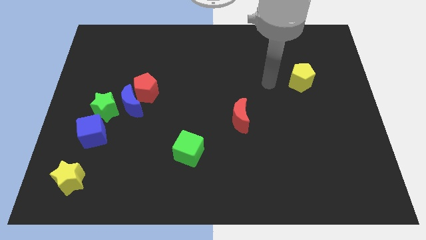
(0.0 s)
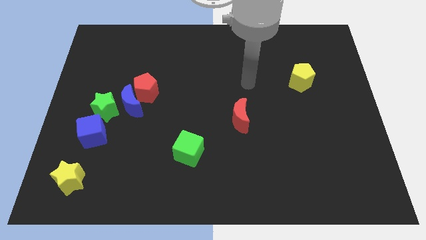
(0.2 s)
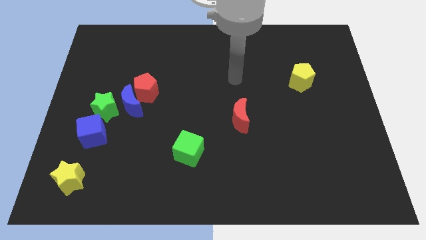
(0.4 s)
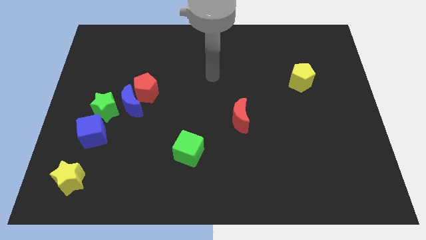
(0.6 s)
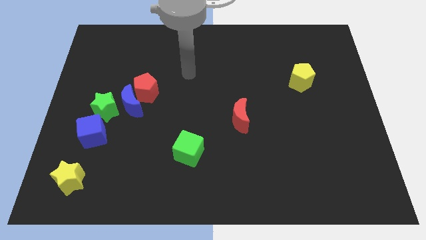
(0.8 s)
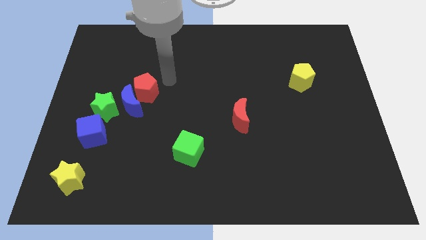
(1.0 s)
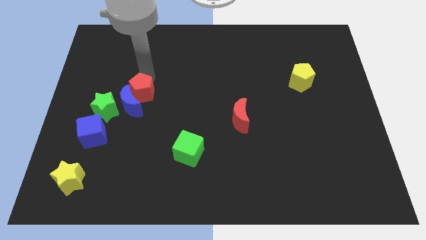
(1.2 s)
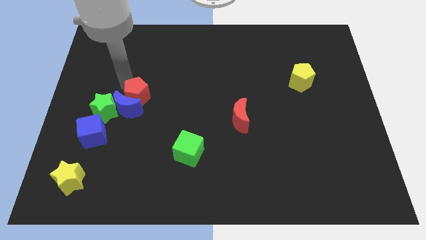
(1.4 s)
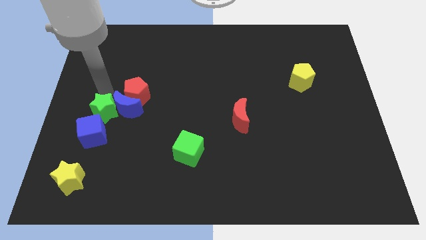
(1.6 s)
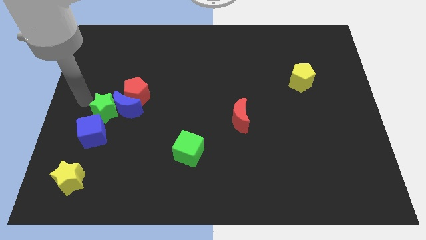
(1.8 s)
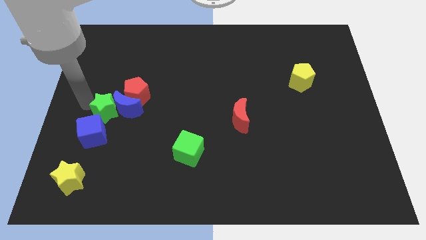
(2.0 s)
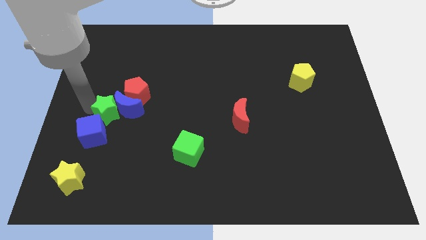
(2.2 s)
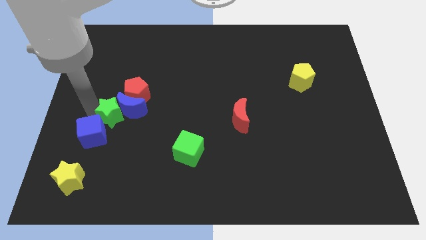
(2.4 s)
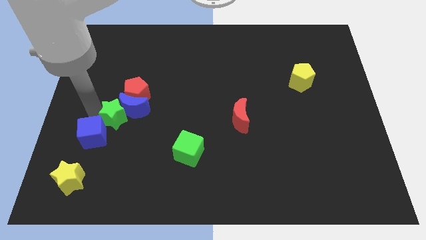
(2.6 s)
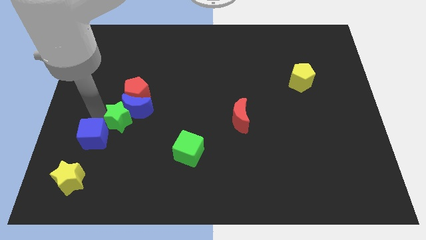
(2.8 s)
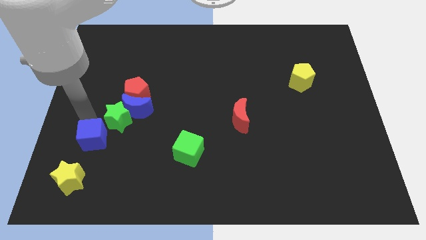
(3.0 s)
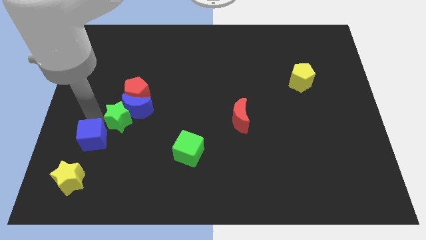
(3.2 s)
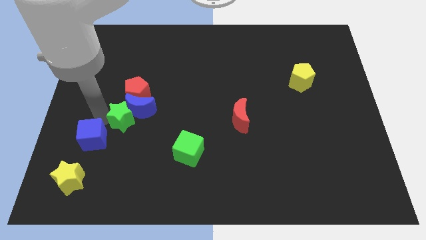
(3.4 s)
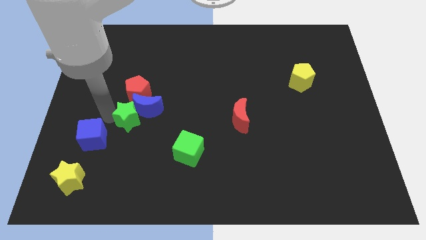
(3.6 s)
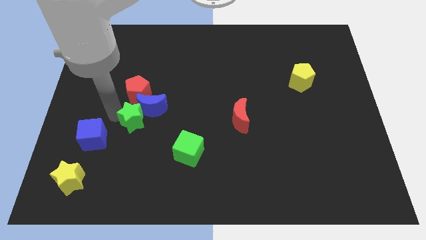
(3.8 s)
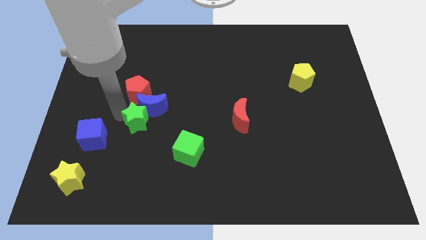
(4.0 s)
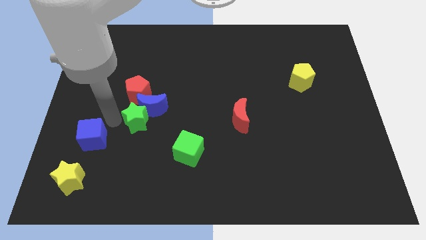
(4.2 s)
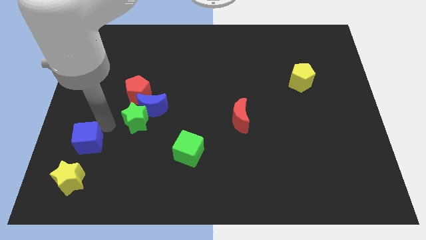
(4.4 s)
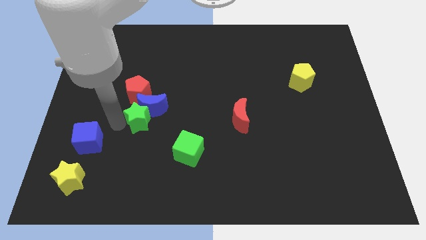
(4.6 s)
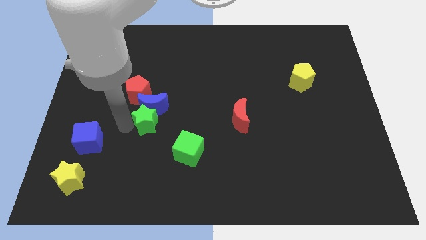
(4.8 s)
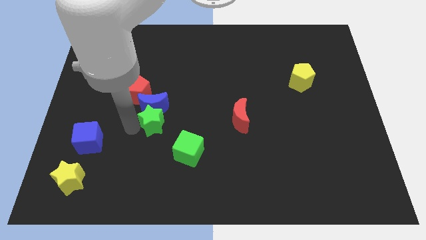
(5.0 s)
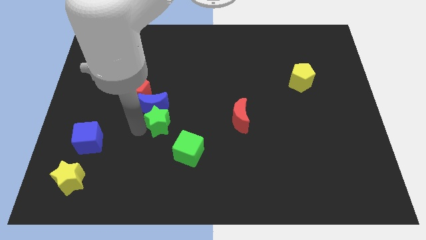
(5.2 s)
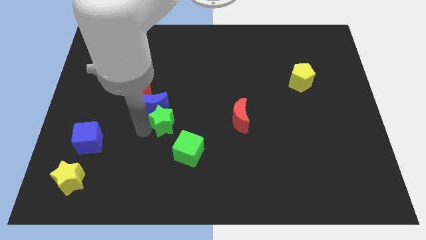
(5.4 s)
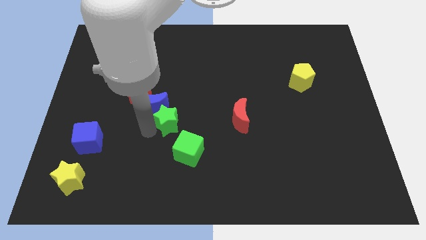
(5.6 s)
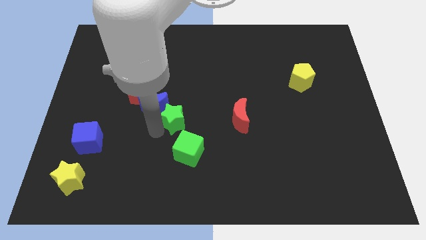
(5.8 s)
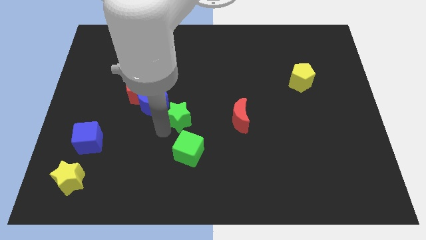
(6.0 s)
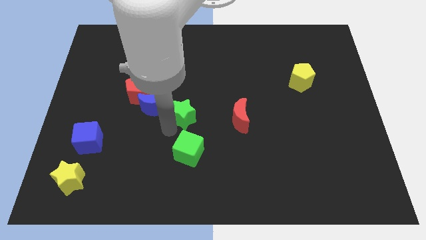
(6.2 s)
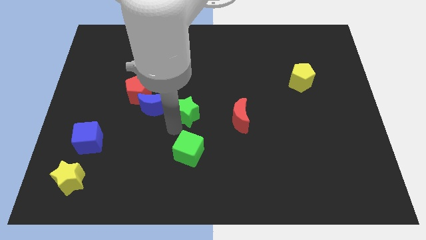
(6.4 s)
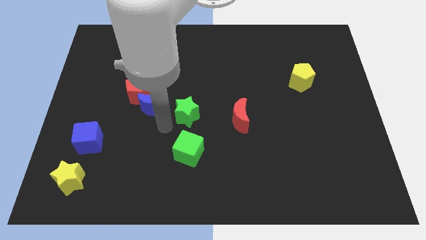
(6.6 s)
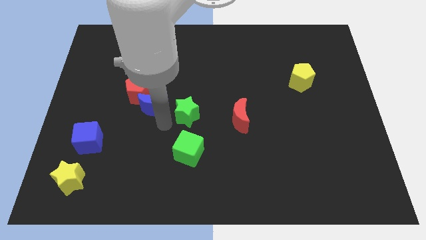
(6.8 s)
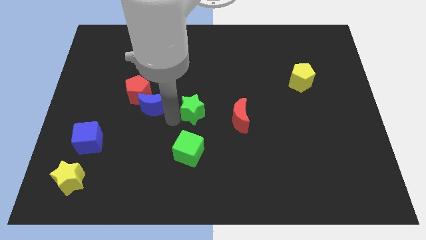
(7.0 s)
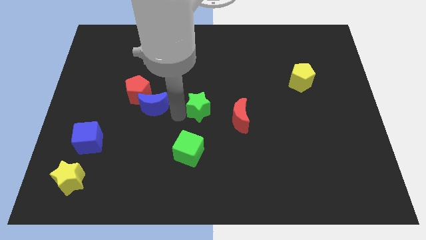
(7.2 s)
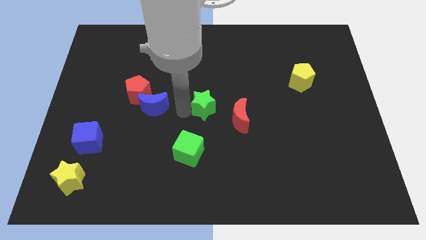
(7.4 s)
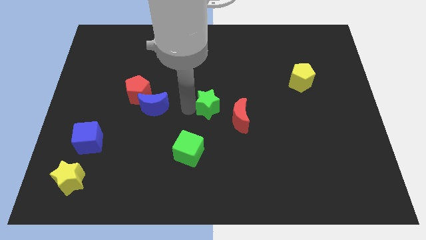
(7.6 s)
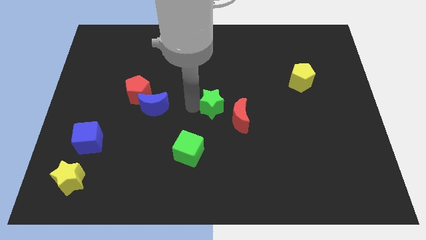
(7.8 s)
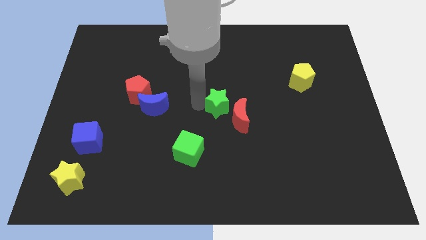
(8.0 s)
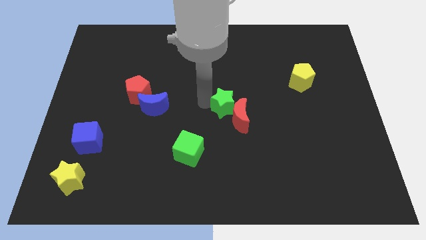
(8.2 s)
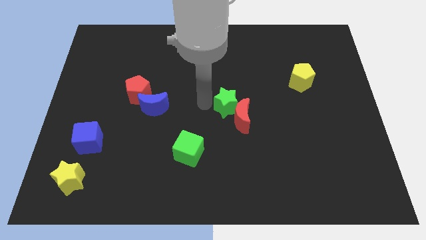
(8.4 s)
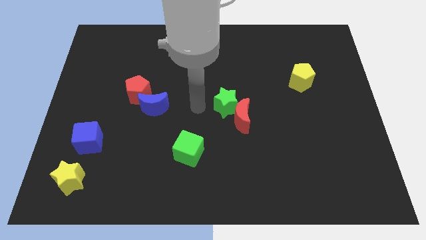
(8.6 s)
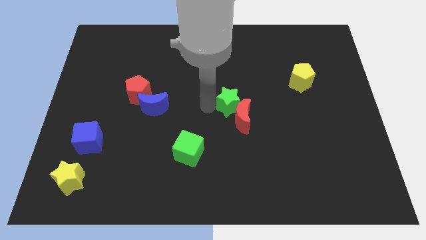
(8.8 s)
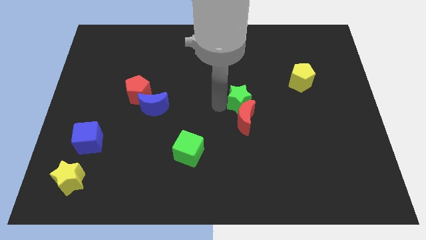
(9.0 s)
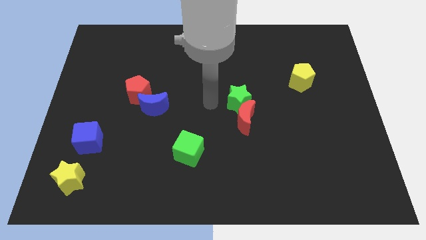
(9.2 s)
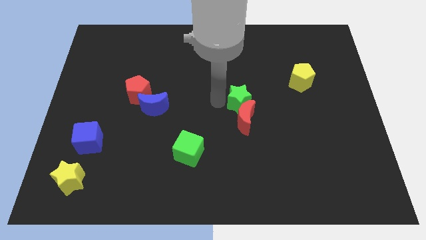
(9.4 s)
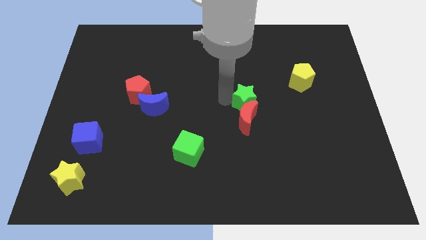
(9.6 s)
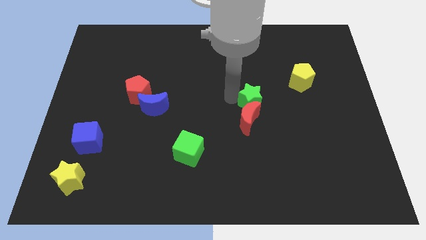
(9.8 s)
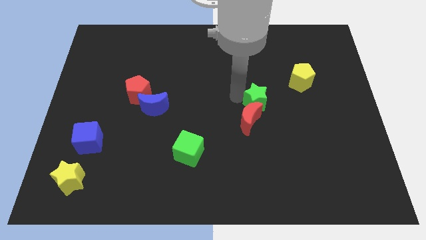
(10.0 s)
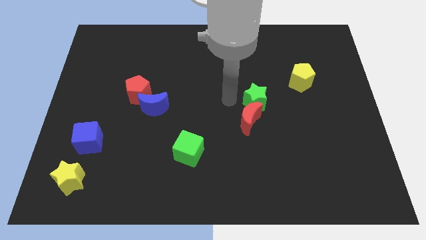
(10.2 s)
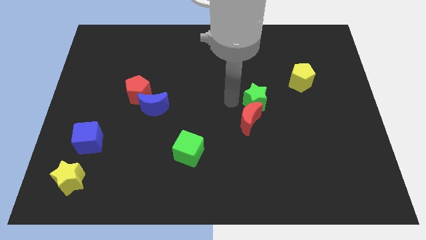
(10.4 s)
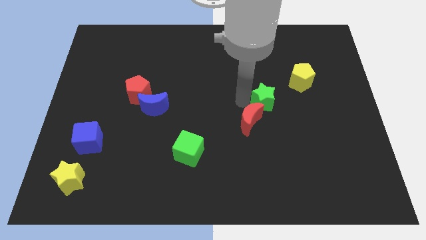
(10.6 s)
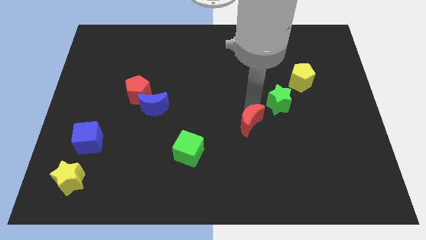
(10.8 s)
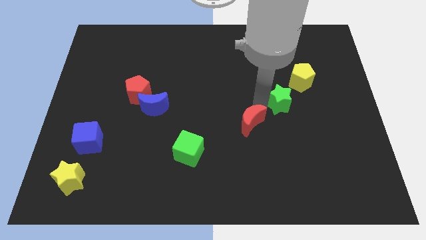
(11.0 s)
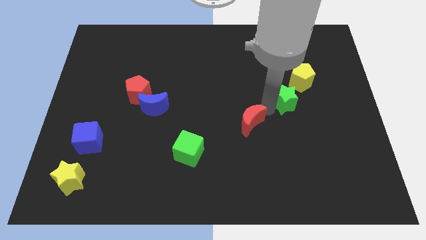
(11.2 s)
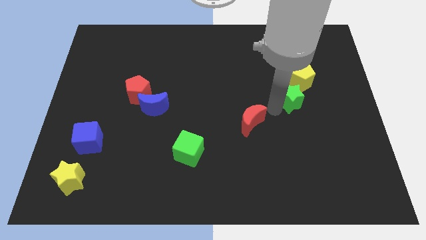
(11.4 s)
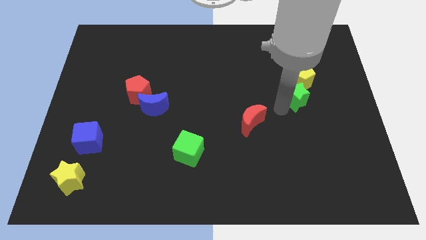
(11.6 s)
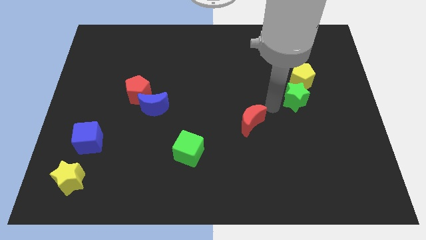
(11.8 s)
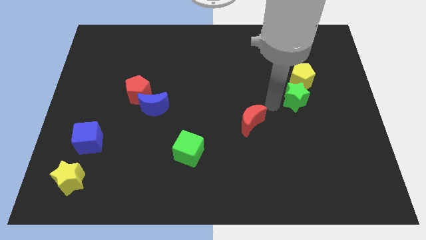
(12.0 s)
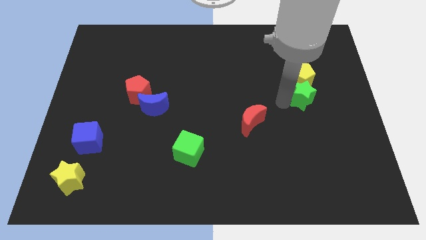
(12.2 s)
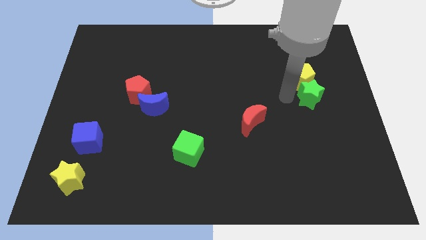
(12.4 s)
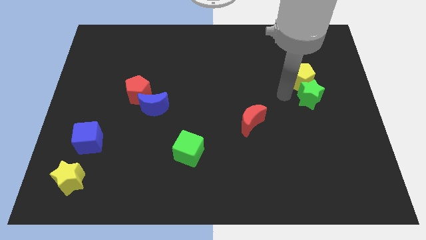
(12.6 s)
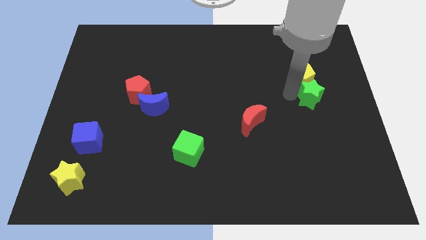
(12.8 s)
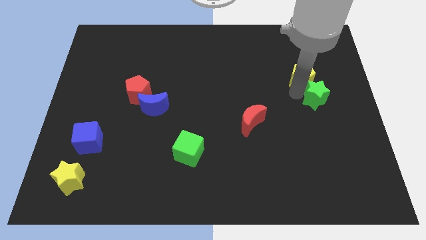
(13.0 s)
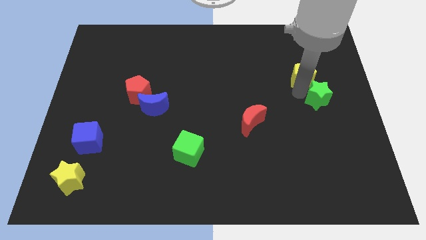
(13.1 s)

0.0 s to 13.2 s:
put the green star to the center right
